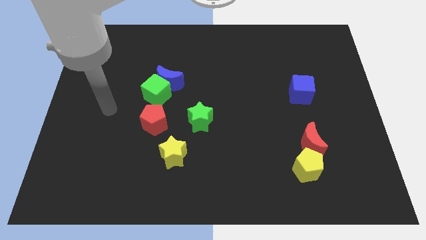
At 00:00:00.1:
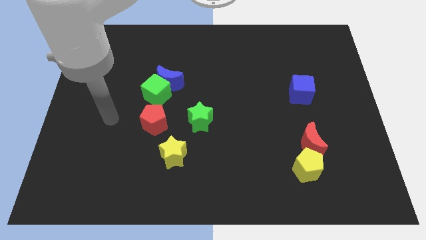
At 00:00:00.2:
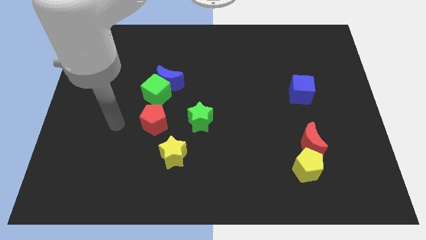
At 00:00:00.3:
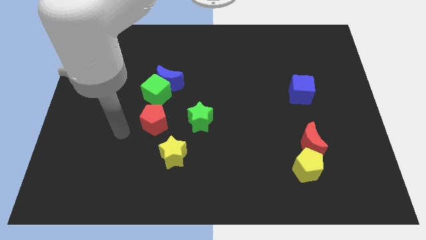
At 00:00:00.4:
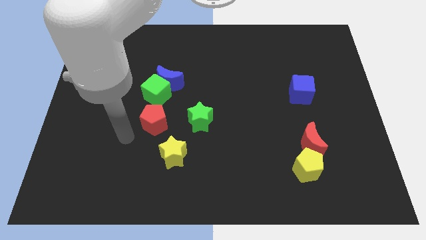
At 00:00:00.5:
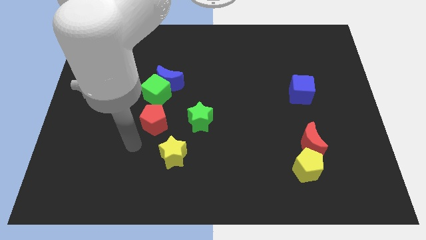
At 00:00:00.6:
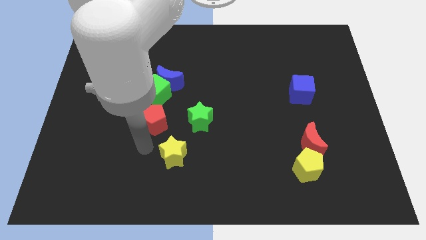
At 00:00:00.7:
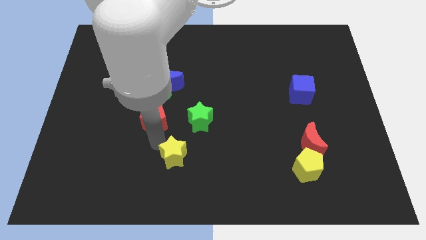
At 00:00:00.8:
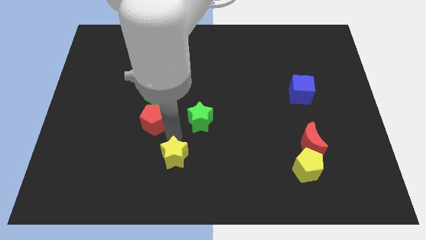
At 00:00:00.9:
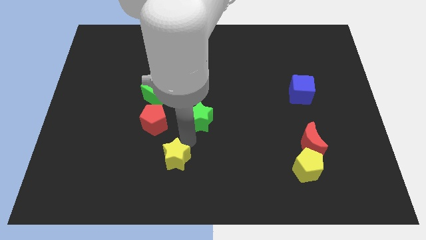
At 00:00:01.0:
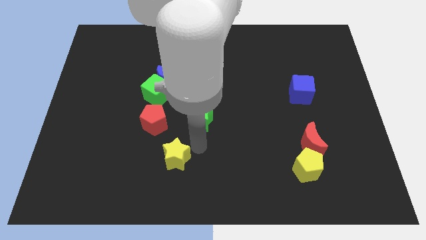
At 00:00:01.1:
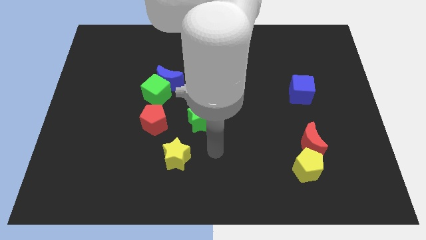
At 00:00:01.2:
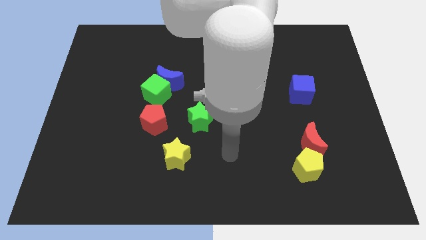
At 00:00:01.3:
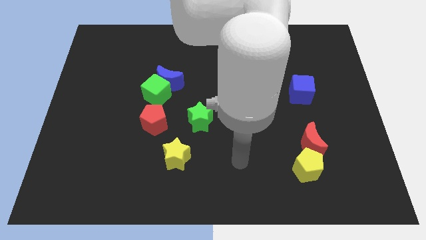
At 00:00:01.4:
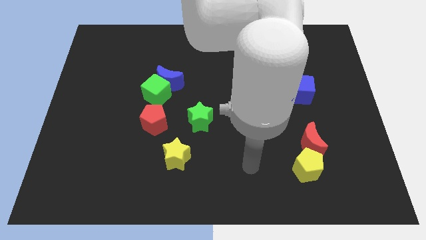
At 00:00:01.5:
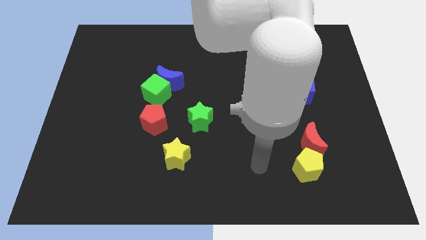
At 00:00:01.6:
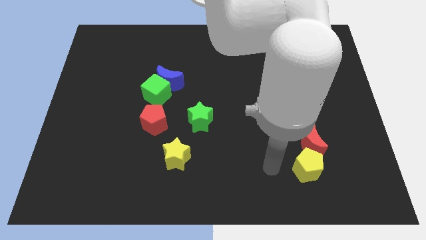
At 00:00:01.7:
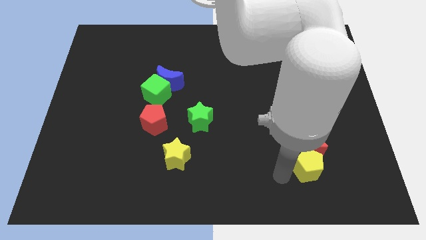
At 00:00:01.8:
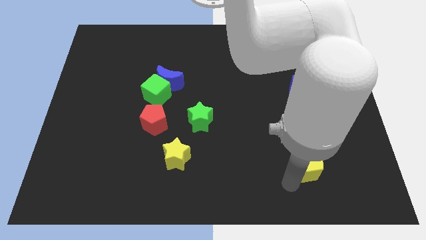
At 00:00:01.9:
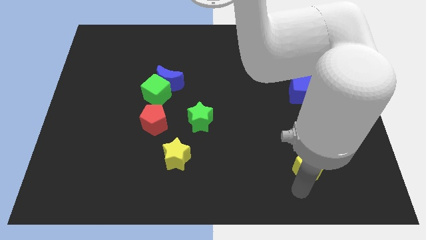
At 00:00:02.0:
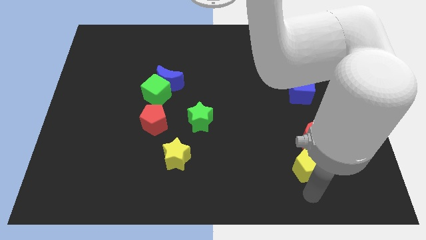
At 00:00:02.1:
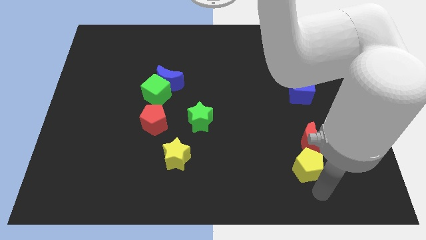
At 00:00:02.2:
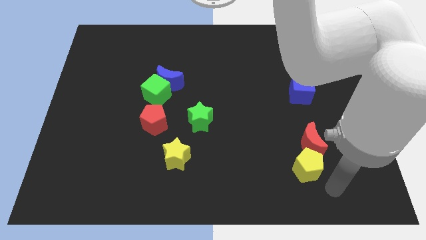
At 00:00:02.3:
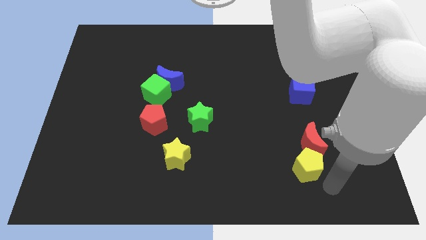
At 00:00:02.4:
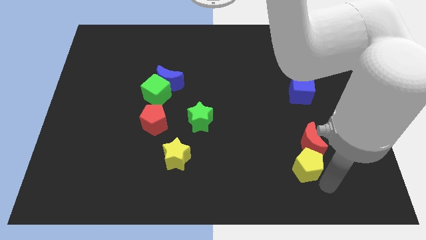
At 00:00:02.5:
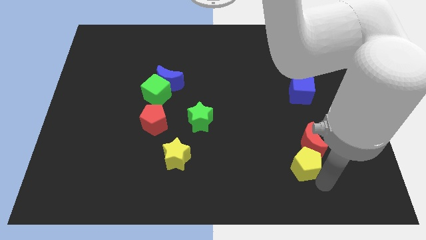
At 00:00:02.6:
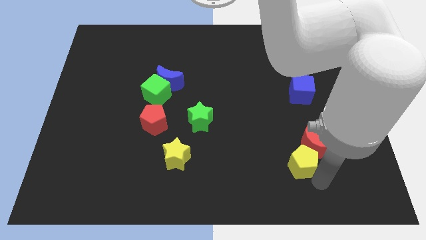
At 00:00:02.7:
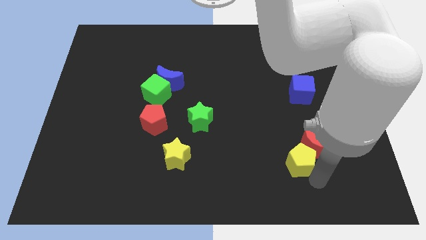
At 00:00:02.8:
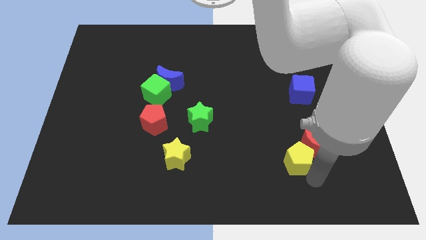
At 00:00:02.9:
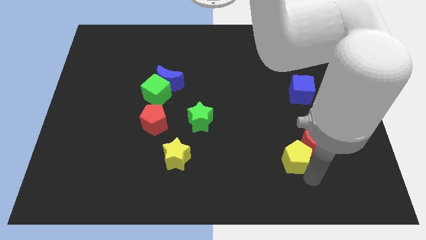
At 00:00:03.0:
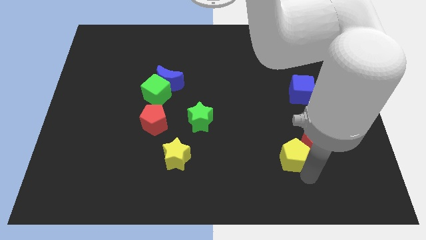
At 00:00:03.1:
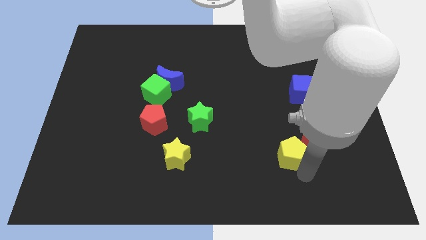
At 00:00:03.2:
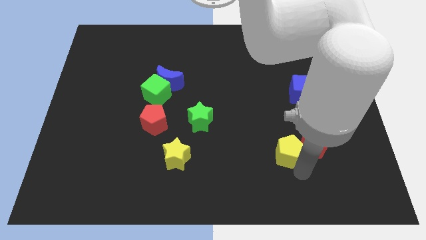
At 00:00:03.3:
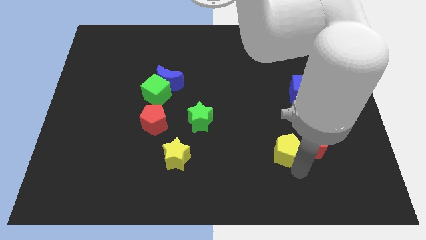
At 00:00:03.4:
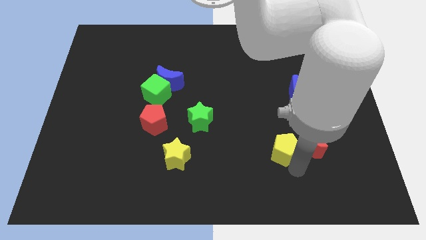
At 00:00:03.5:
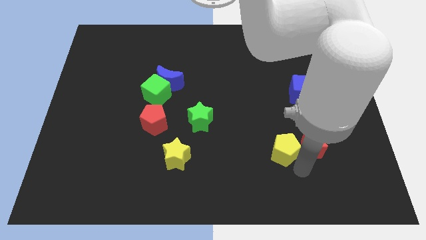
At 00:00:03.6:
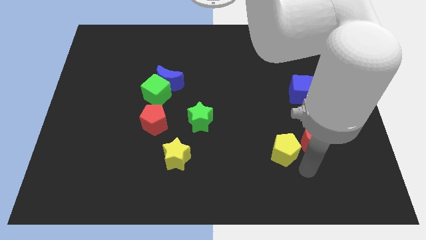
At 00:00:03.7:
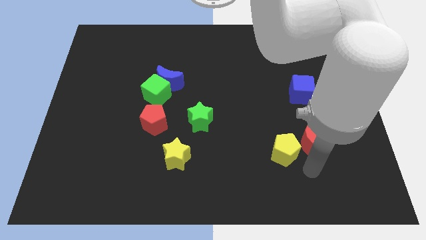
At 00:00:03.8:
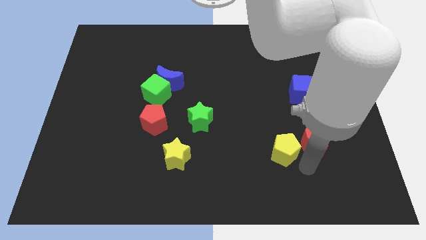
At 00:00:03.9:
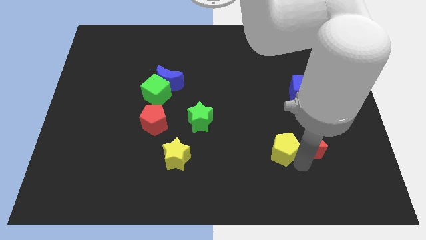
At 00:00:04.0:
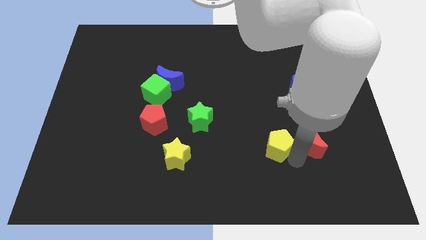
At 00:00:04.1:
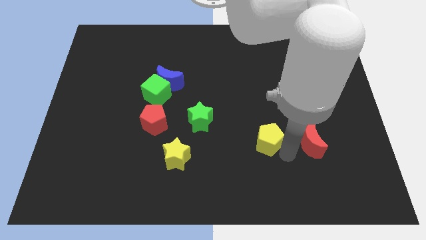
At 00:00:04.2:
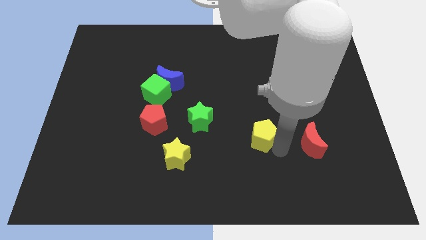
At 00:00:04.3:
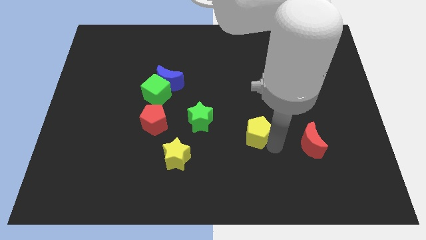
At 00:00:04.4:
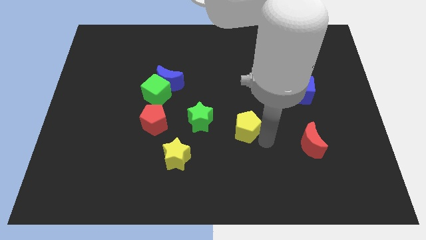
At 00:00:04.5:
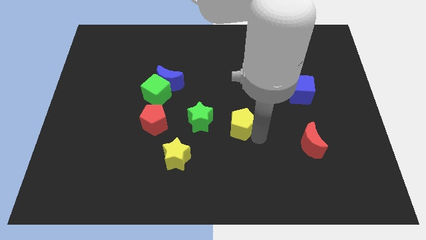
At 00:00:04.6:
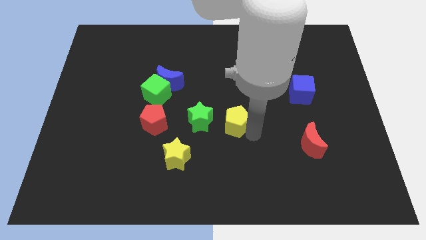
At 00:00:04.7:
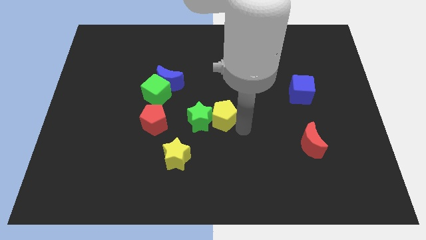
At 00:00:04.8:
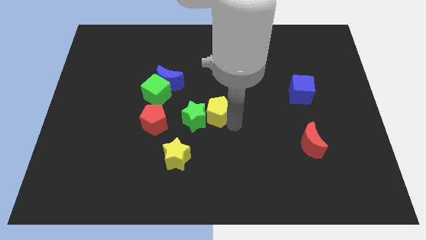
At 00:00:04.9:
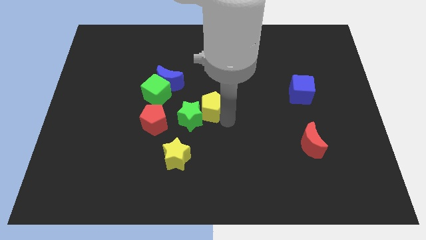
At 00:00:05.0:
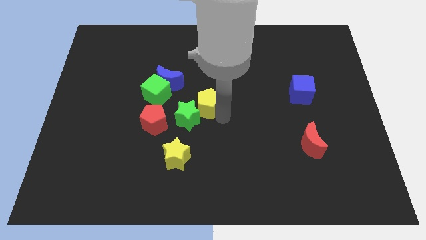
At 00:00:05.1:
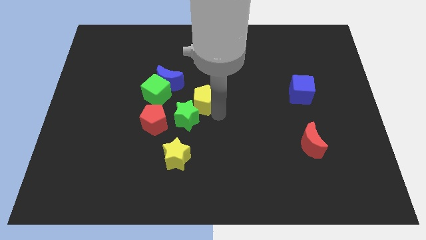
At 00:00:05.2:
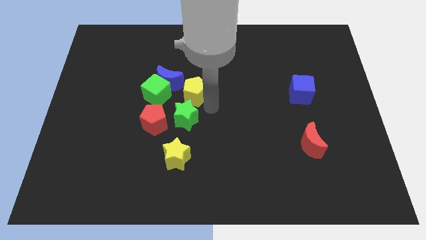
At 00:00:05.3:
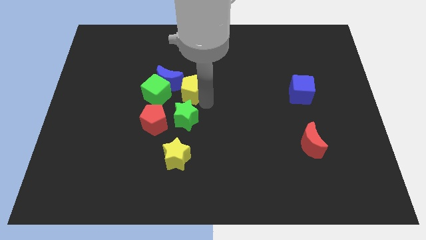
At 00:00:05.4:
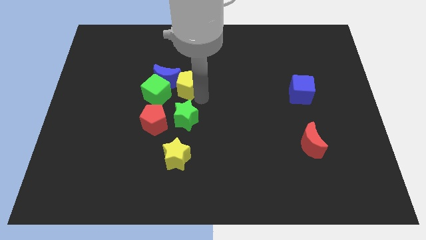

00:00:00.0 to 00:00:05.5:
move the yellow pentagon next to the blue moon

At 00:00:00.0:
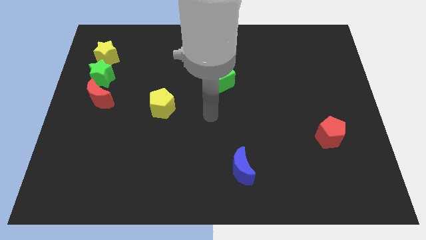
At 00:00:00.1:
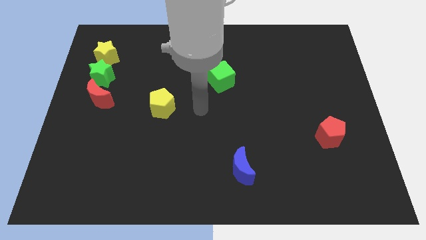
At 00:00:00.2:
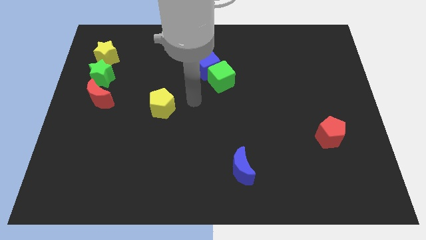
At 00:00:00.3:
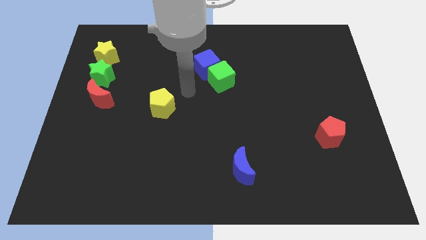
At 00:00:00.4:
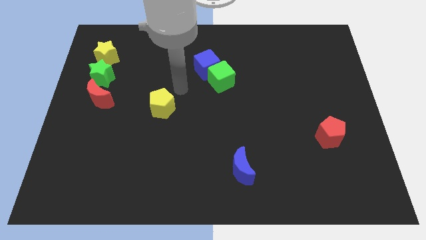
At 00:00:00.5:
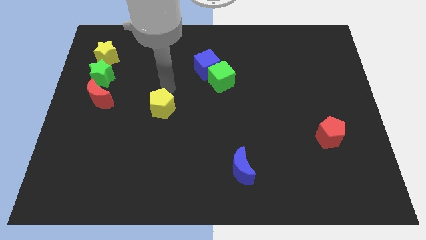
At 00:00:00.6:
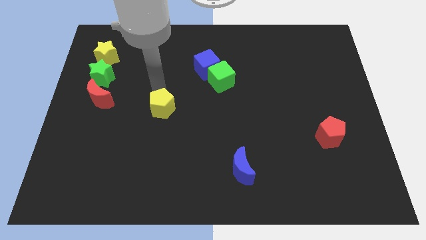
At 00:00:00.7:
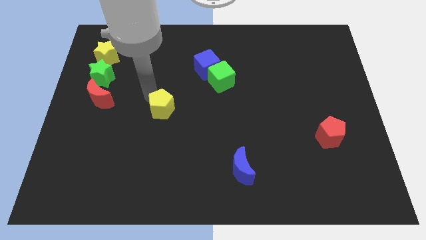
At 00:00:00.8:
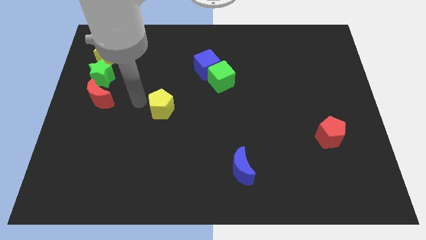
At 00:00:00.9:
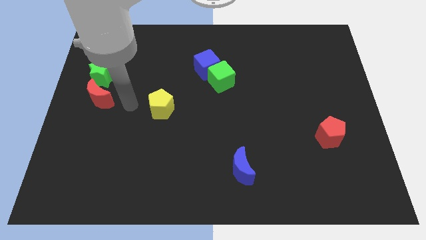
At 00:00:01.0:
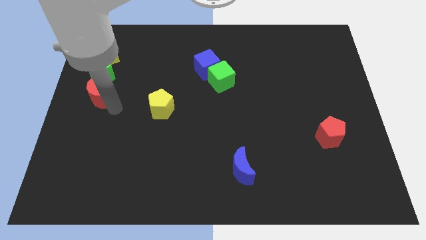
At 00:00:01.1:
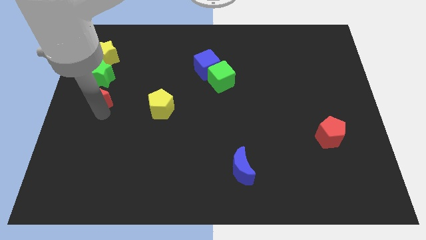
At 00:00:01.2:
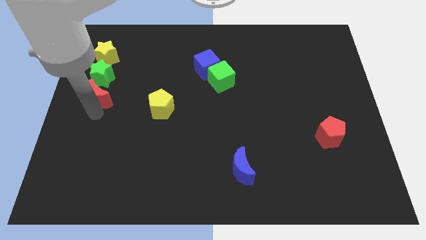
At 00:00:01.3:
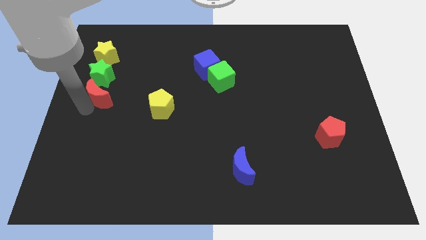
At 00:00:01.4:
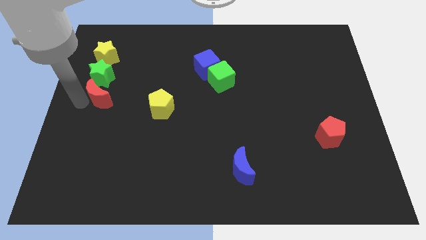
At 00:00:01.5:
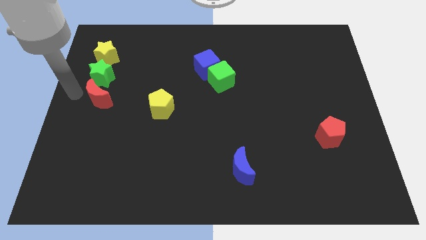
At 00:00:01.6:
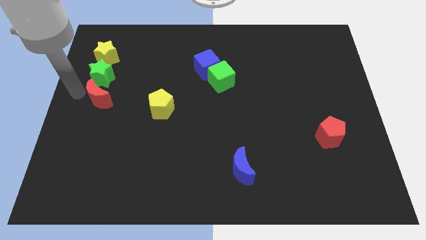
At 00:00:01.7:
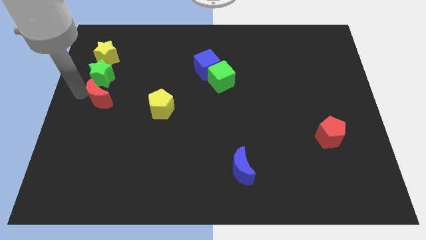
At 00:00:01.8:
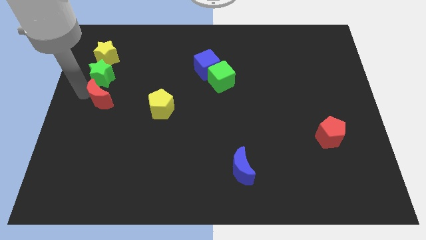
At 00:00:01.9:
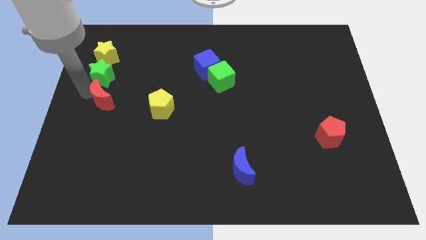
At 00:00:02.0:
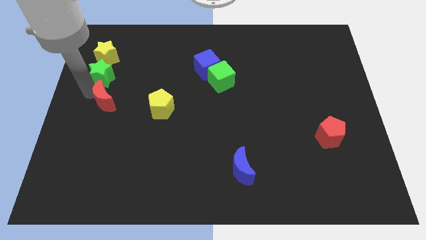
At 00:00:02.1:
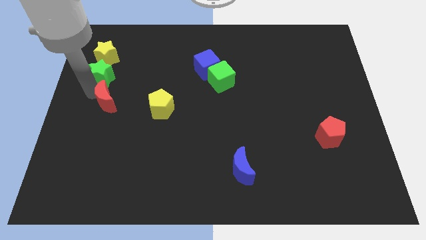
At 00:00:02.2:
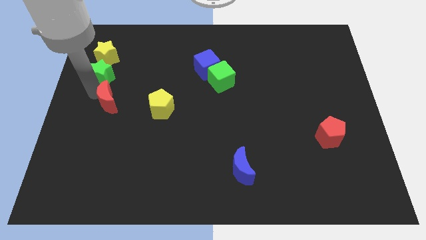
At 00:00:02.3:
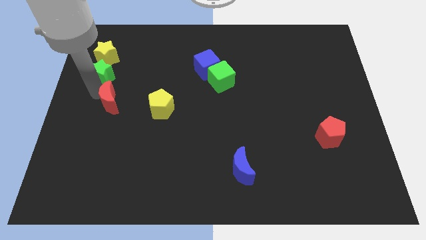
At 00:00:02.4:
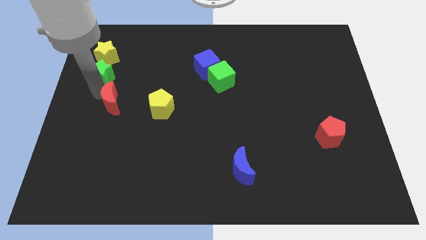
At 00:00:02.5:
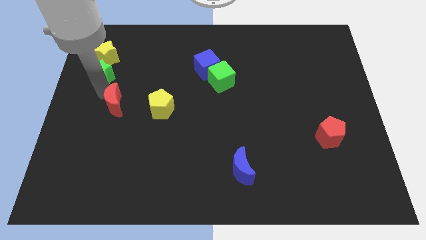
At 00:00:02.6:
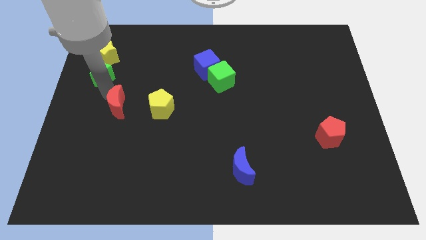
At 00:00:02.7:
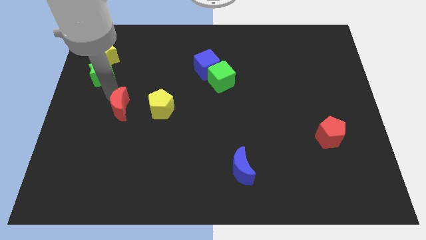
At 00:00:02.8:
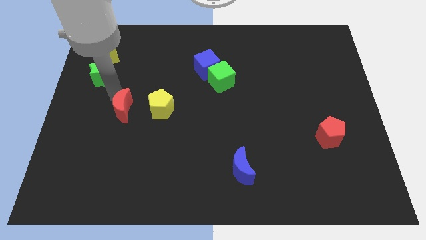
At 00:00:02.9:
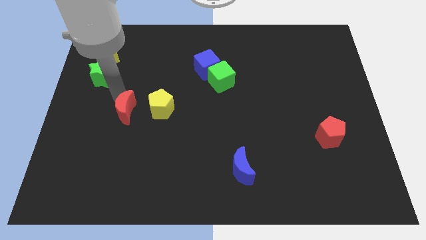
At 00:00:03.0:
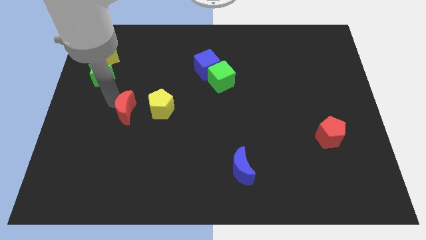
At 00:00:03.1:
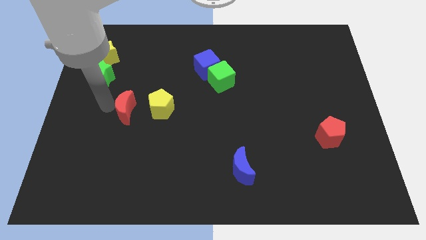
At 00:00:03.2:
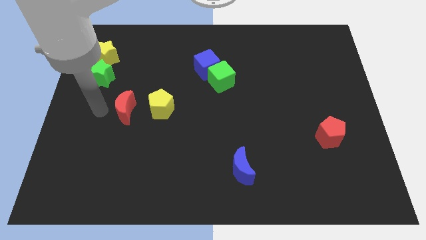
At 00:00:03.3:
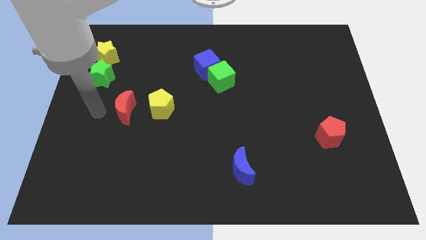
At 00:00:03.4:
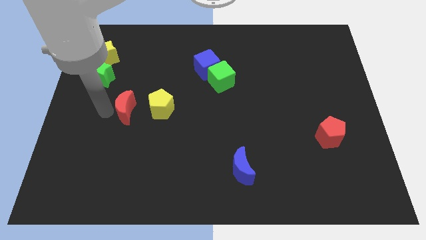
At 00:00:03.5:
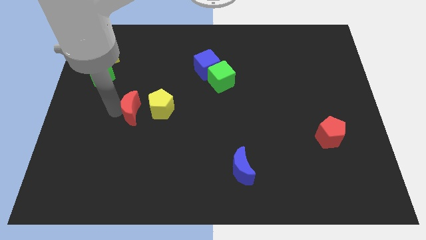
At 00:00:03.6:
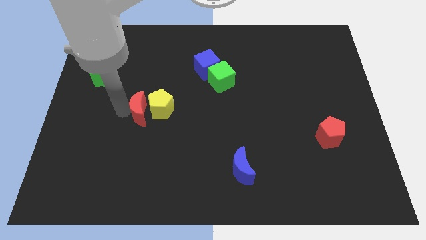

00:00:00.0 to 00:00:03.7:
move the red moon to the yellow pentagon
